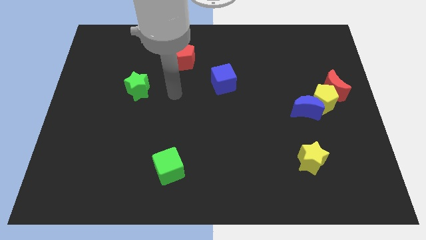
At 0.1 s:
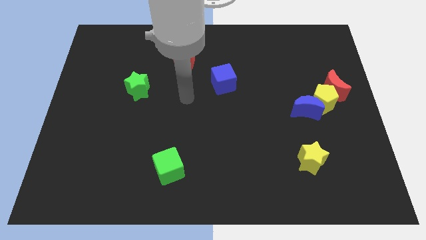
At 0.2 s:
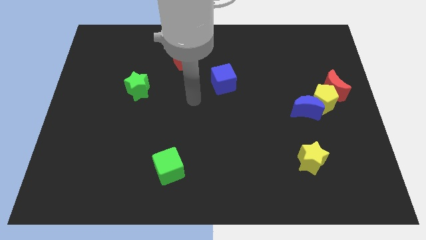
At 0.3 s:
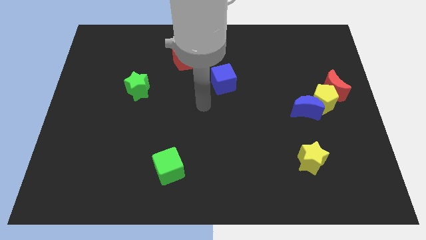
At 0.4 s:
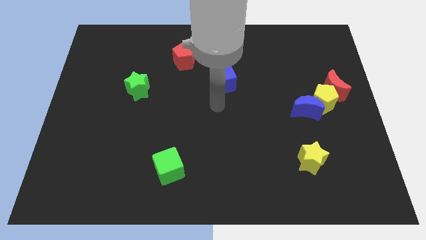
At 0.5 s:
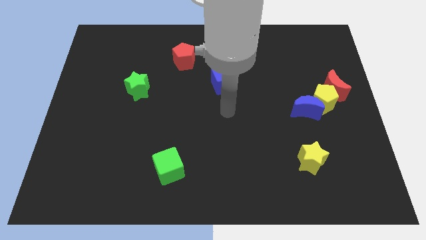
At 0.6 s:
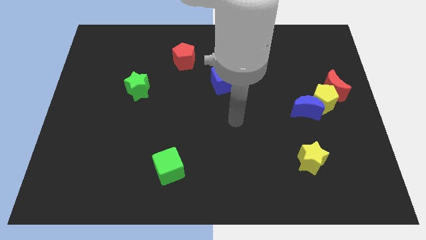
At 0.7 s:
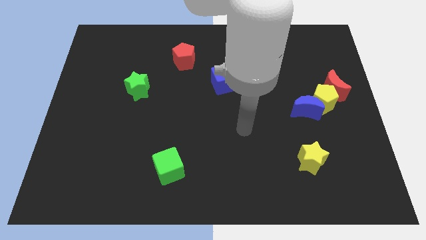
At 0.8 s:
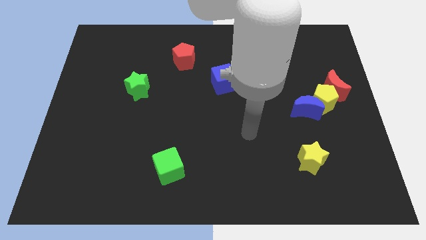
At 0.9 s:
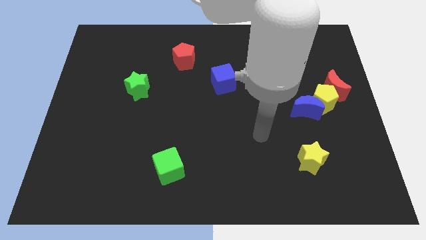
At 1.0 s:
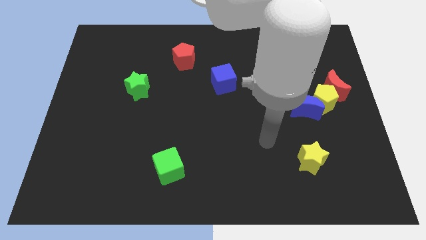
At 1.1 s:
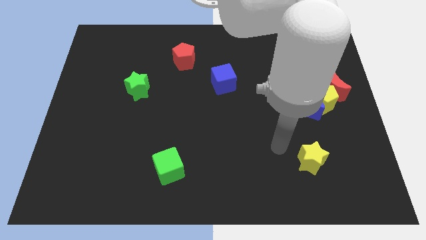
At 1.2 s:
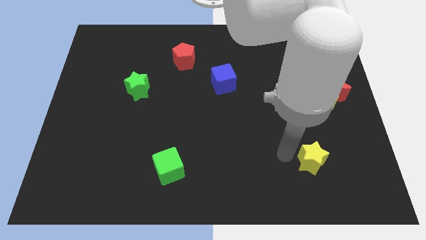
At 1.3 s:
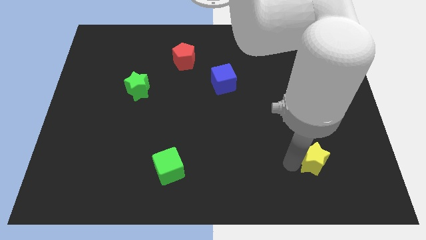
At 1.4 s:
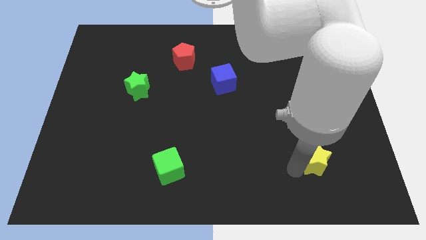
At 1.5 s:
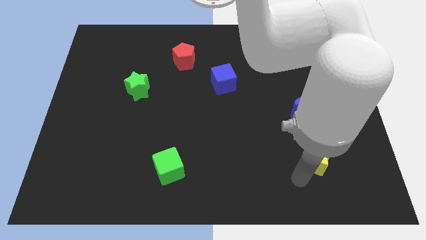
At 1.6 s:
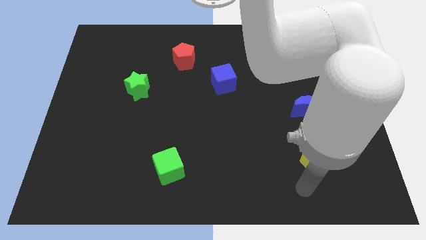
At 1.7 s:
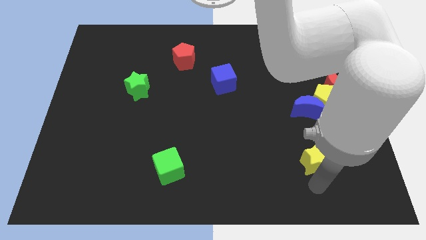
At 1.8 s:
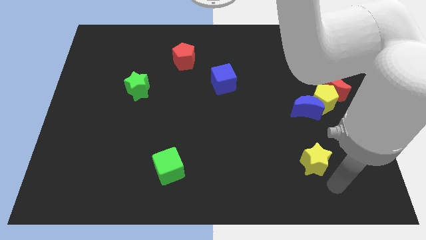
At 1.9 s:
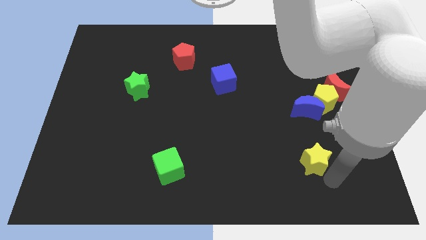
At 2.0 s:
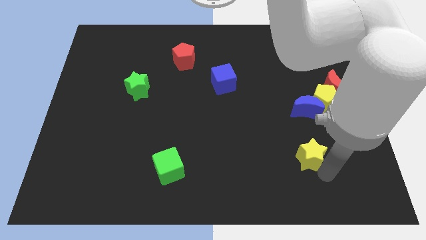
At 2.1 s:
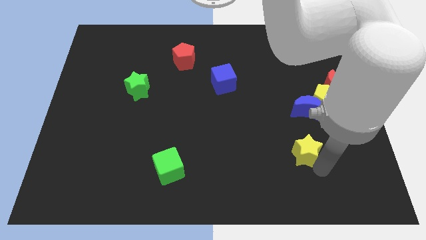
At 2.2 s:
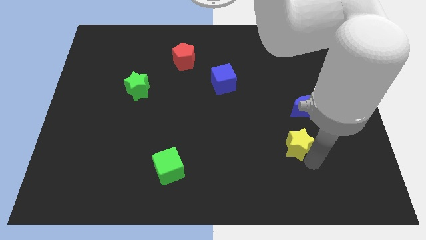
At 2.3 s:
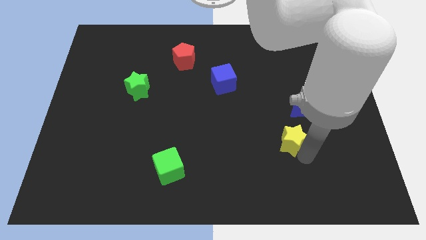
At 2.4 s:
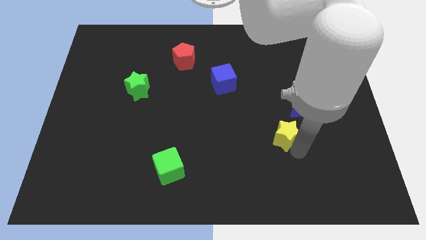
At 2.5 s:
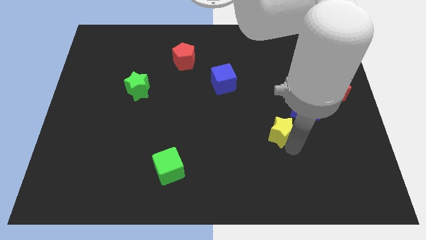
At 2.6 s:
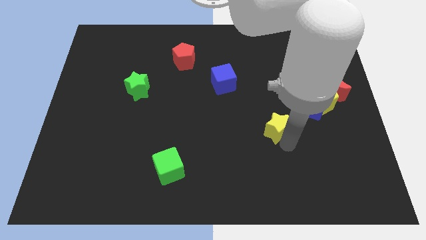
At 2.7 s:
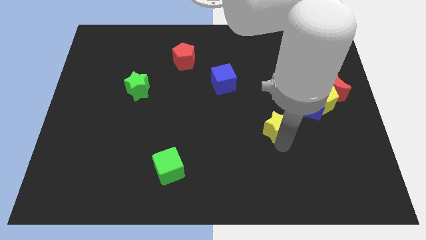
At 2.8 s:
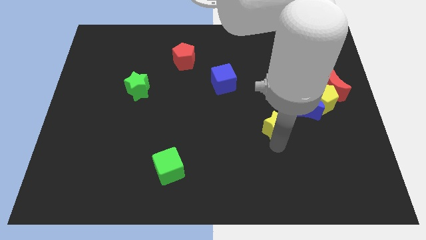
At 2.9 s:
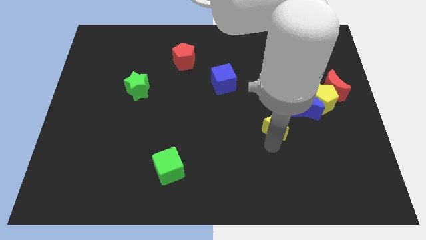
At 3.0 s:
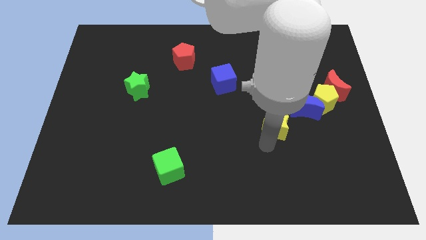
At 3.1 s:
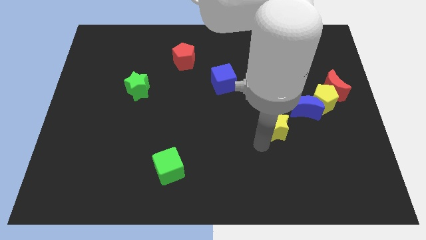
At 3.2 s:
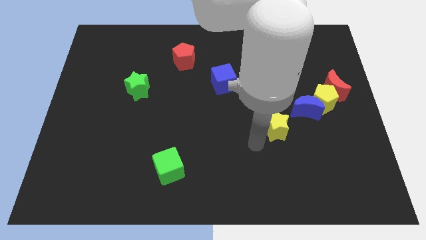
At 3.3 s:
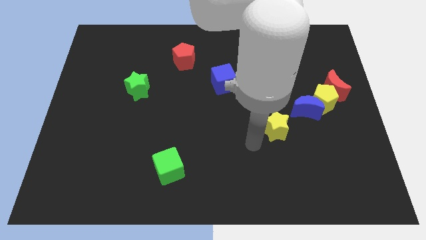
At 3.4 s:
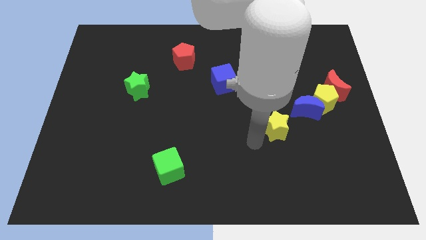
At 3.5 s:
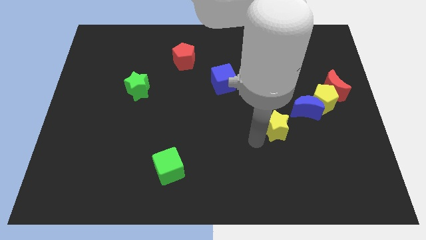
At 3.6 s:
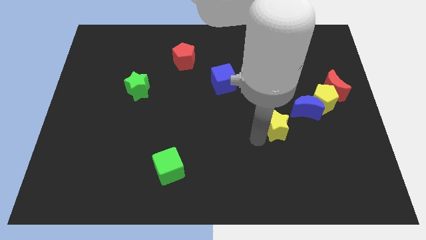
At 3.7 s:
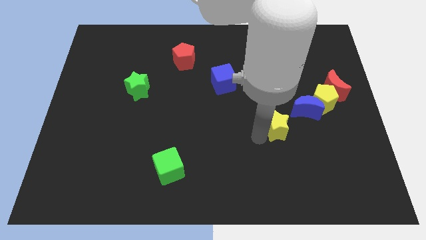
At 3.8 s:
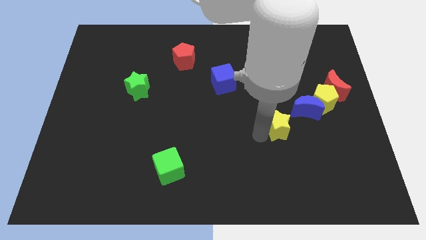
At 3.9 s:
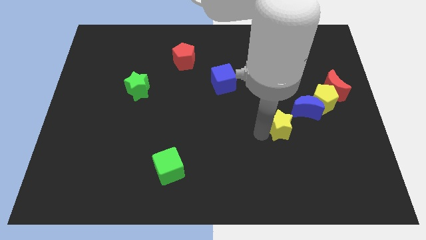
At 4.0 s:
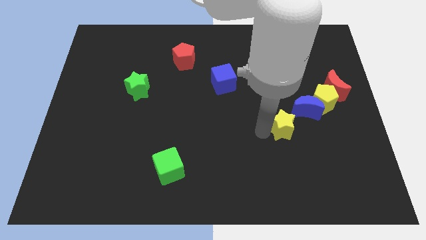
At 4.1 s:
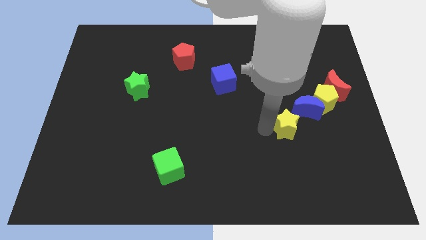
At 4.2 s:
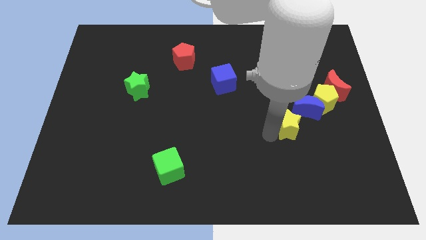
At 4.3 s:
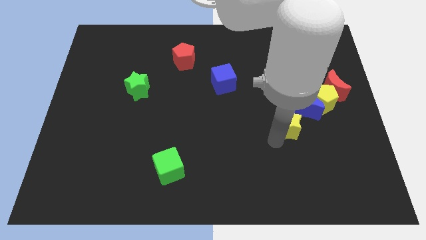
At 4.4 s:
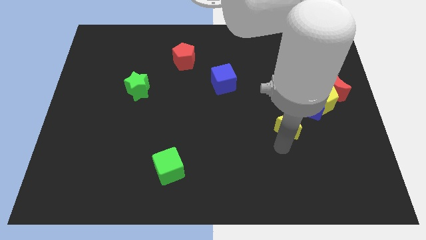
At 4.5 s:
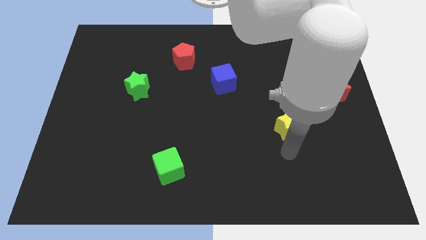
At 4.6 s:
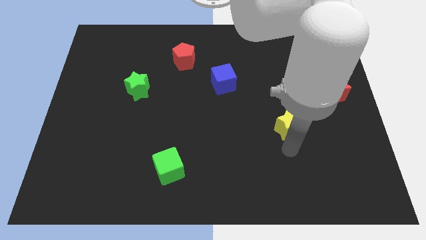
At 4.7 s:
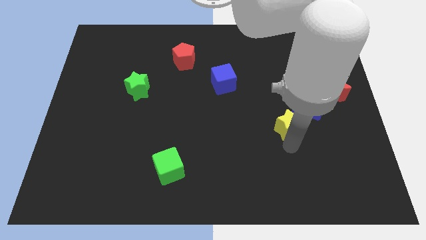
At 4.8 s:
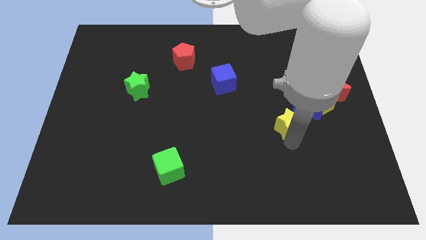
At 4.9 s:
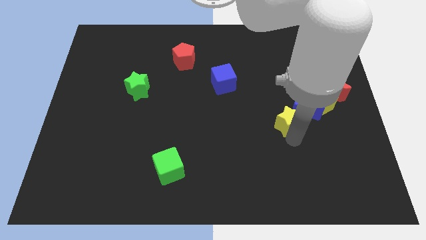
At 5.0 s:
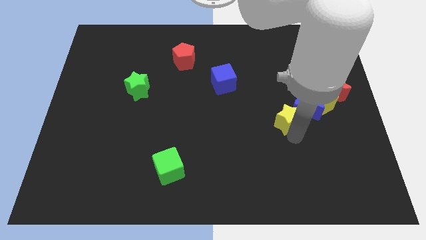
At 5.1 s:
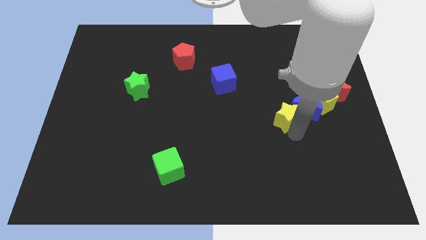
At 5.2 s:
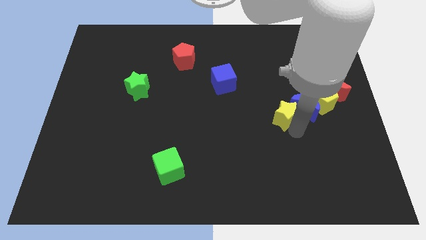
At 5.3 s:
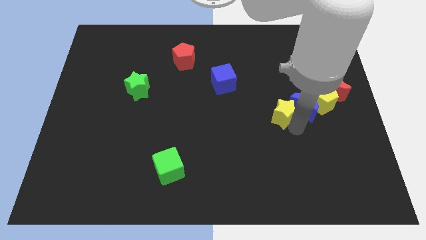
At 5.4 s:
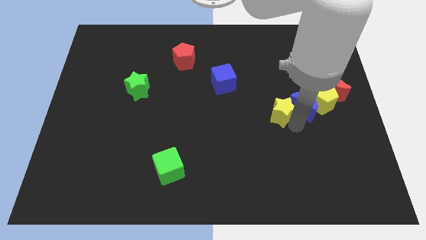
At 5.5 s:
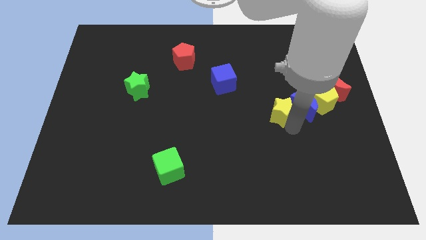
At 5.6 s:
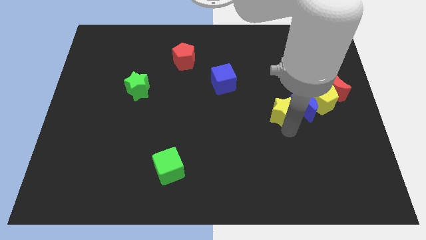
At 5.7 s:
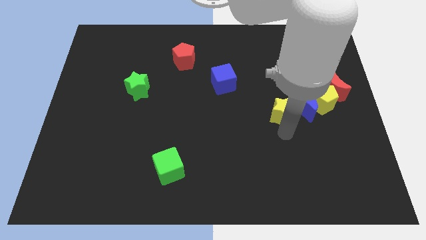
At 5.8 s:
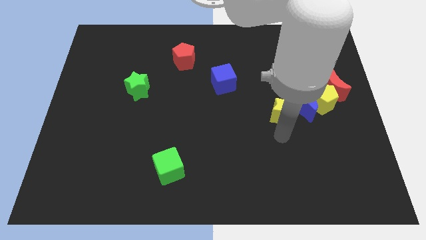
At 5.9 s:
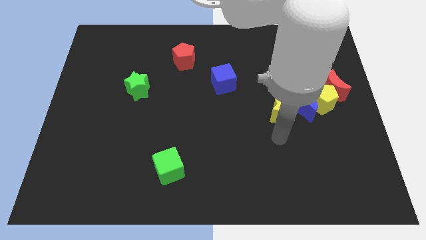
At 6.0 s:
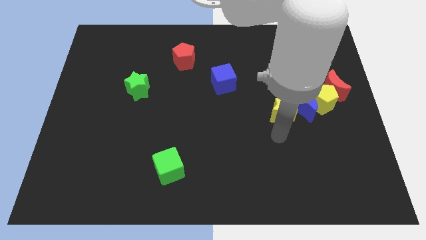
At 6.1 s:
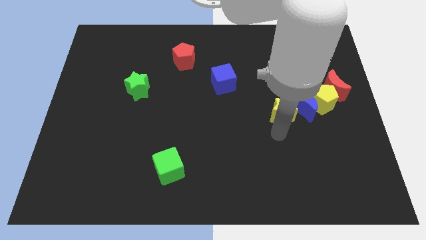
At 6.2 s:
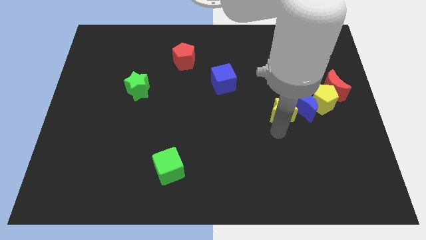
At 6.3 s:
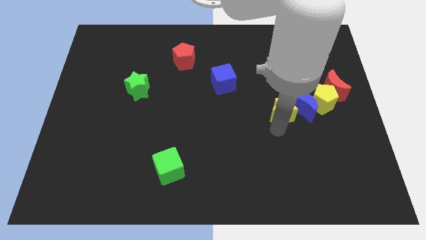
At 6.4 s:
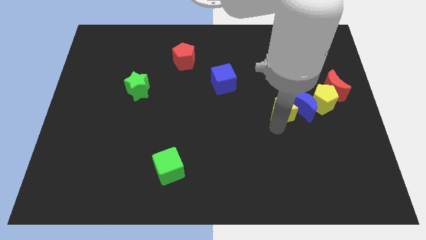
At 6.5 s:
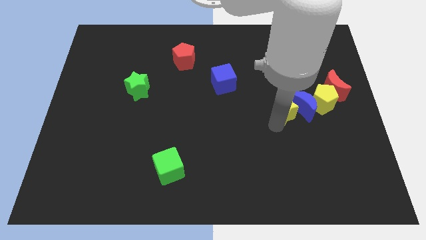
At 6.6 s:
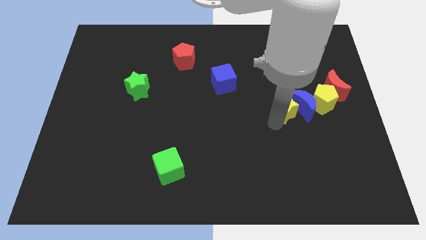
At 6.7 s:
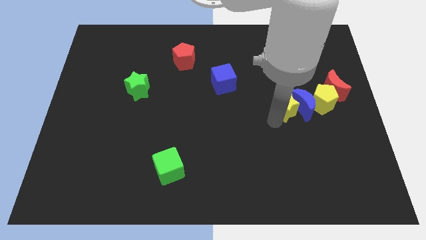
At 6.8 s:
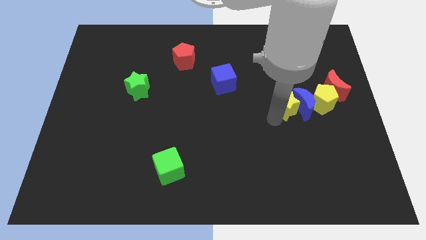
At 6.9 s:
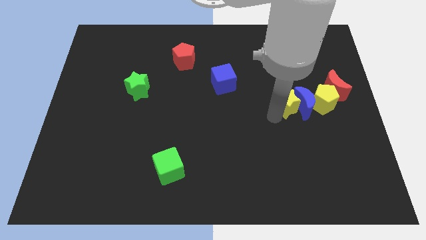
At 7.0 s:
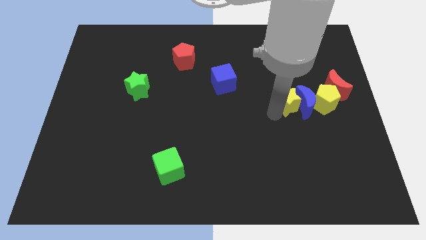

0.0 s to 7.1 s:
slide the yellow star left of the red moon

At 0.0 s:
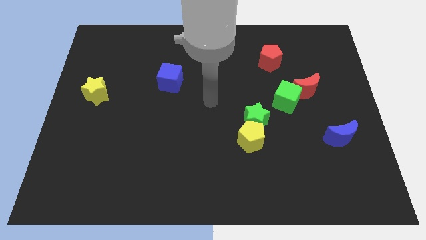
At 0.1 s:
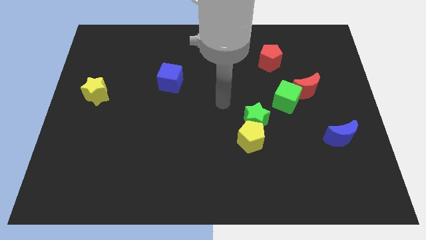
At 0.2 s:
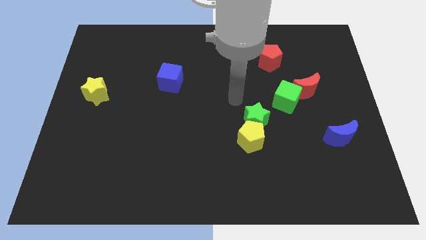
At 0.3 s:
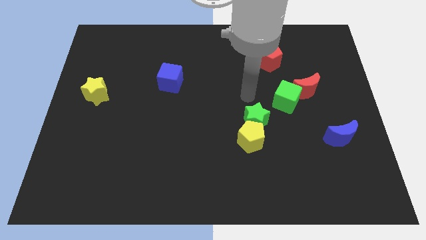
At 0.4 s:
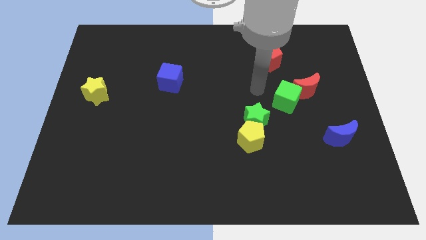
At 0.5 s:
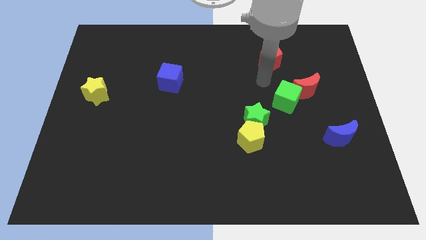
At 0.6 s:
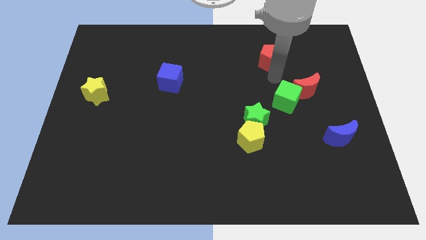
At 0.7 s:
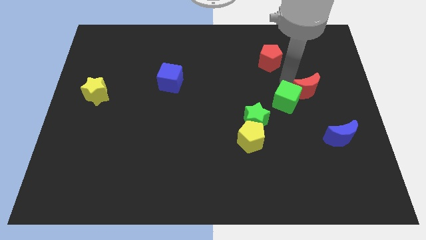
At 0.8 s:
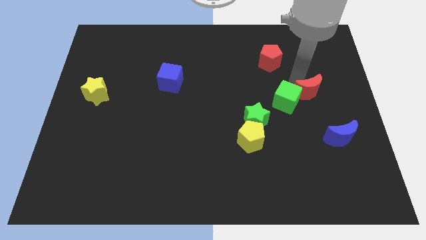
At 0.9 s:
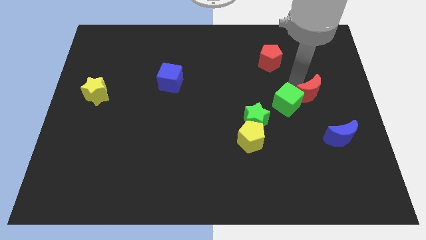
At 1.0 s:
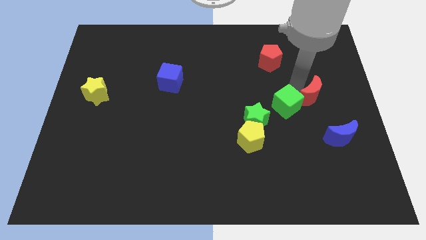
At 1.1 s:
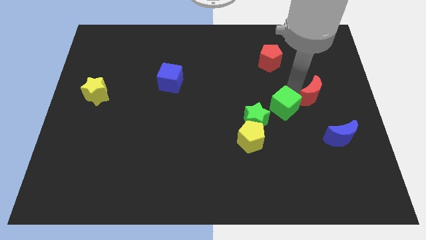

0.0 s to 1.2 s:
move the green cube to the top right of the yellow pentagon
